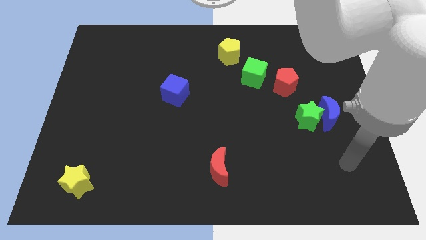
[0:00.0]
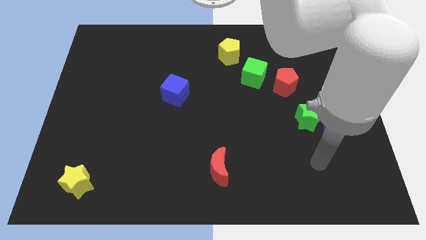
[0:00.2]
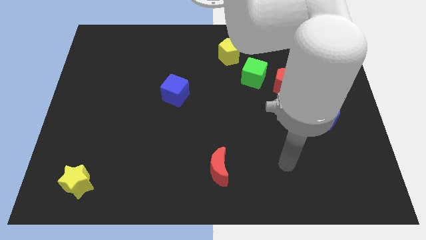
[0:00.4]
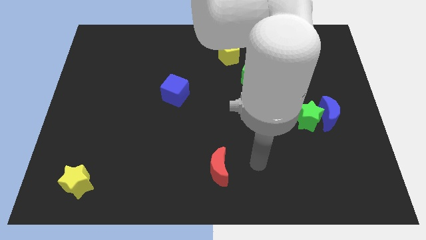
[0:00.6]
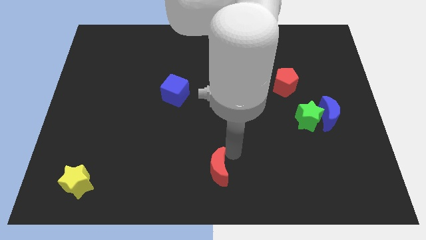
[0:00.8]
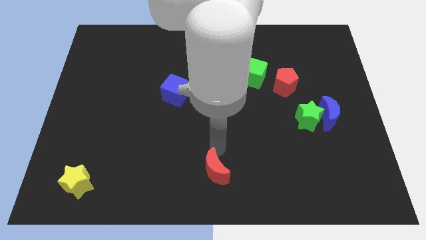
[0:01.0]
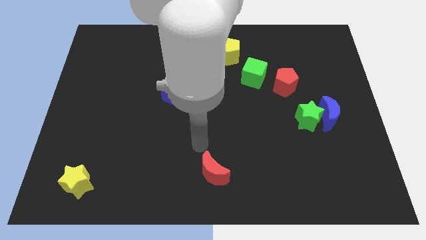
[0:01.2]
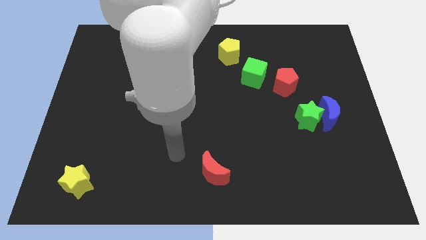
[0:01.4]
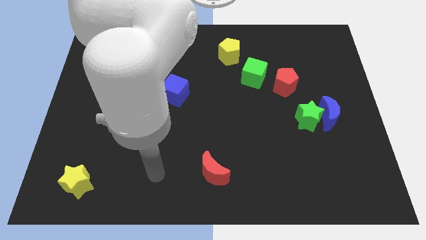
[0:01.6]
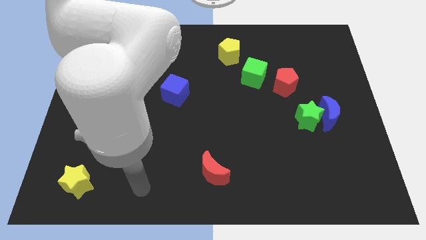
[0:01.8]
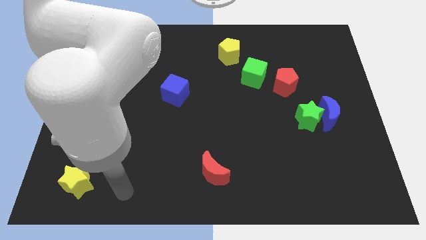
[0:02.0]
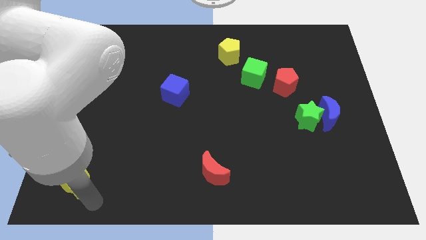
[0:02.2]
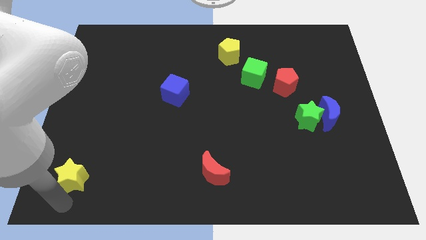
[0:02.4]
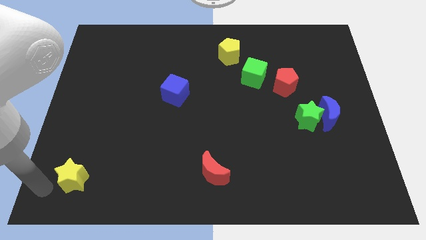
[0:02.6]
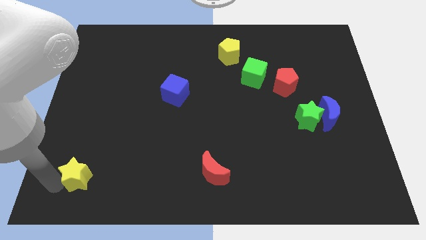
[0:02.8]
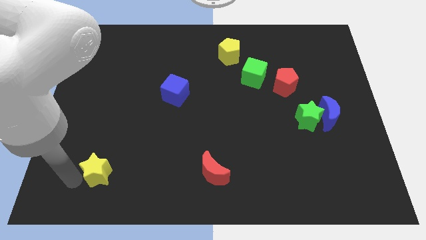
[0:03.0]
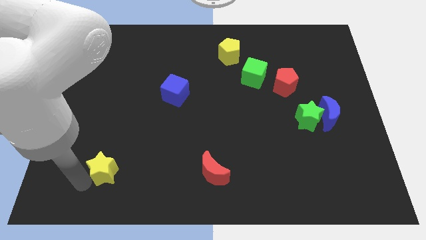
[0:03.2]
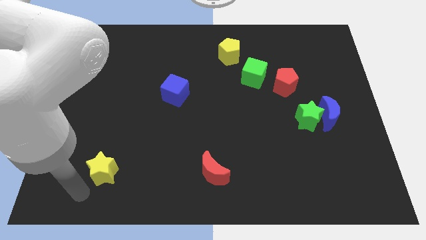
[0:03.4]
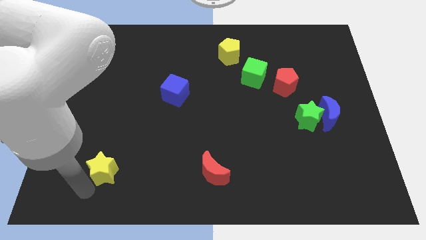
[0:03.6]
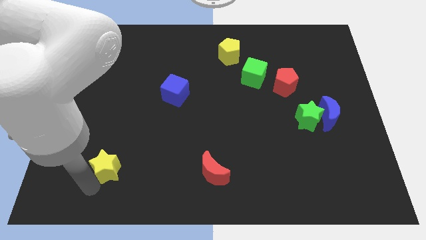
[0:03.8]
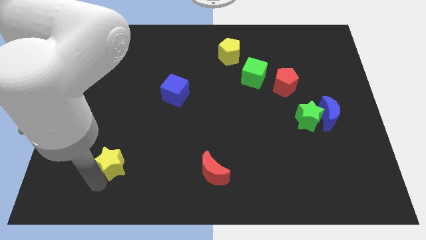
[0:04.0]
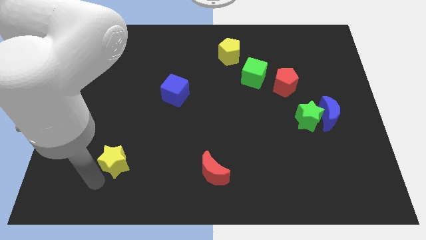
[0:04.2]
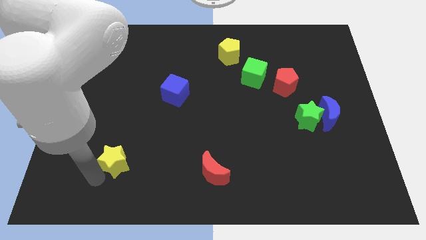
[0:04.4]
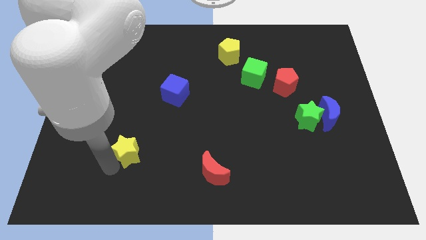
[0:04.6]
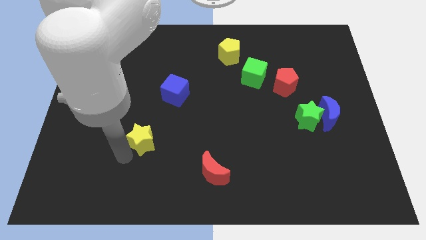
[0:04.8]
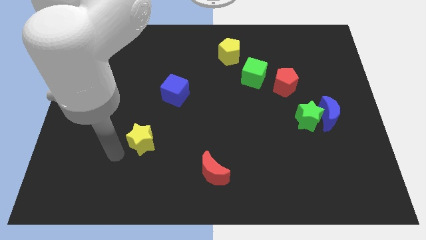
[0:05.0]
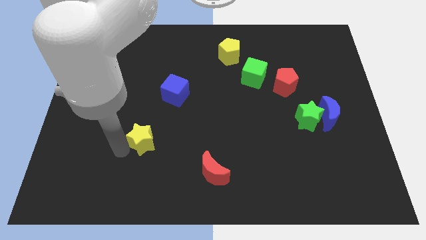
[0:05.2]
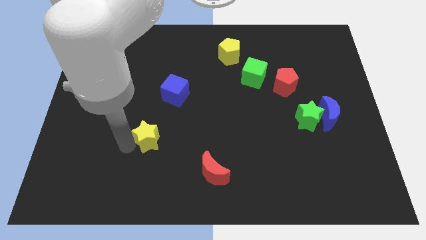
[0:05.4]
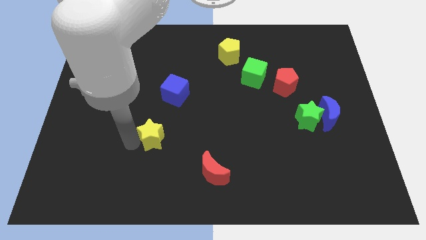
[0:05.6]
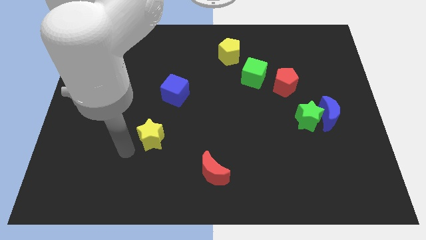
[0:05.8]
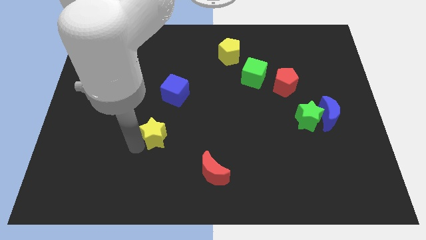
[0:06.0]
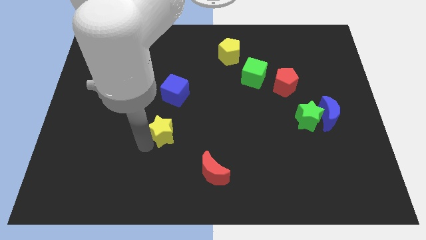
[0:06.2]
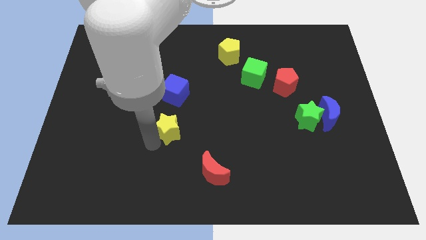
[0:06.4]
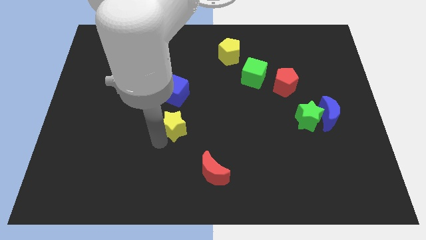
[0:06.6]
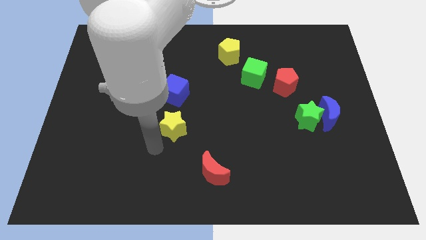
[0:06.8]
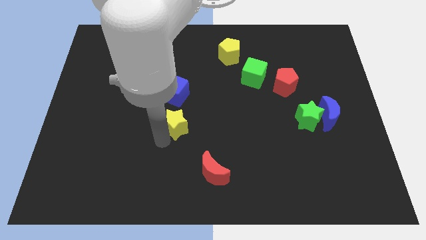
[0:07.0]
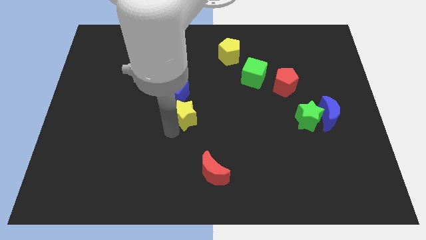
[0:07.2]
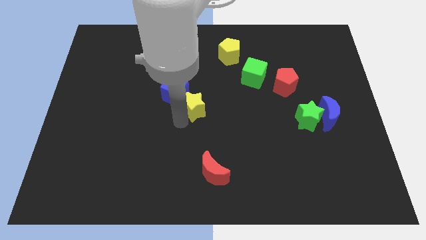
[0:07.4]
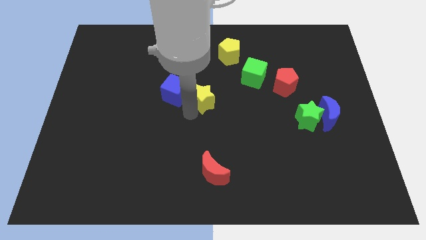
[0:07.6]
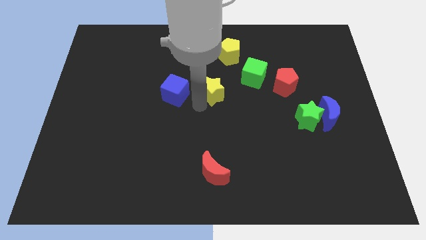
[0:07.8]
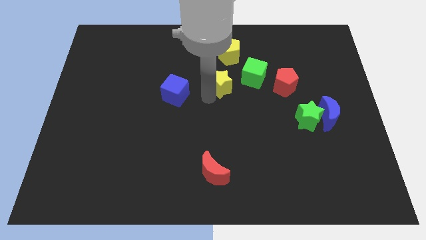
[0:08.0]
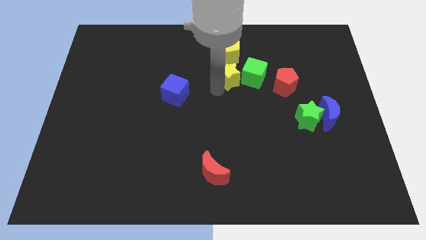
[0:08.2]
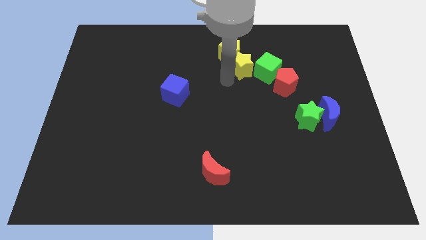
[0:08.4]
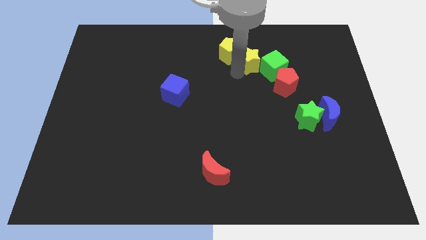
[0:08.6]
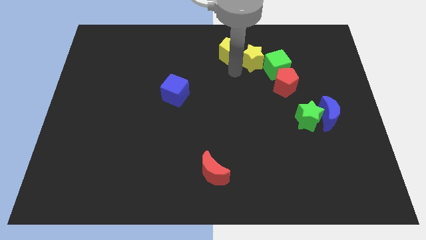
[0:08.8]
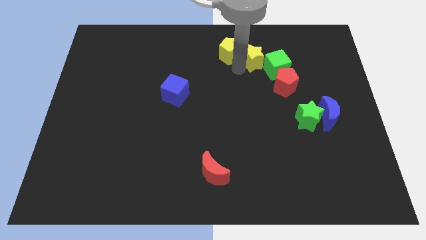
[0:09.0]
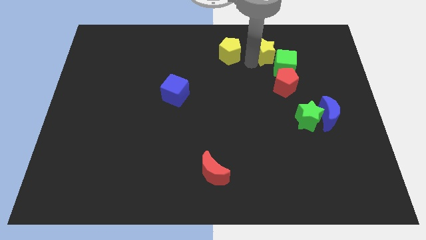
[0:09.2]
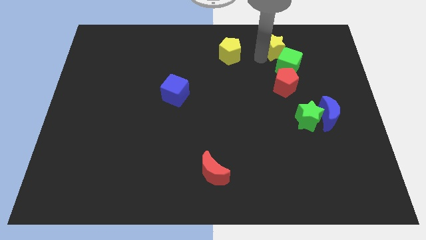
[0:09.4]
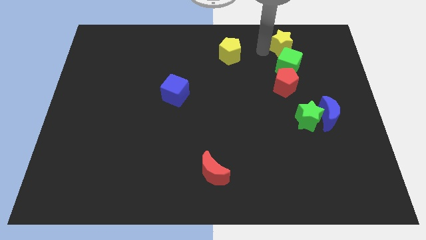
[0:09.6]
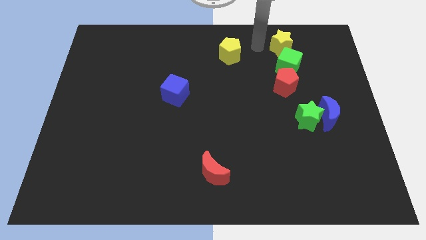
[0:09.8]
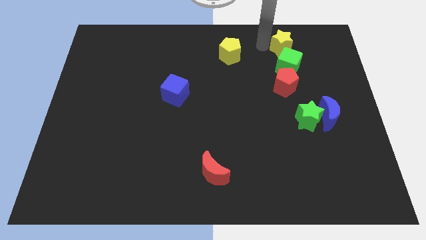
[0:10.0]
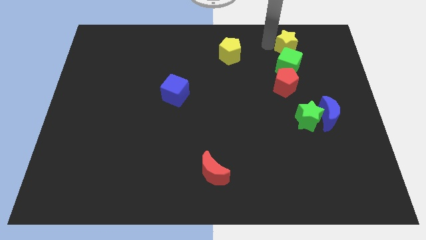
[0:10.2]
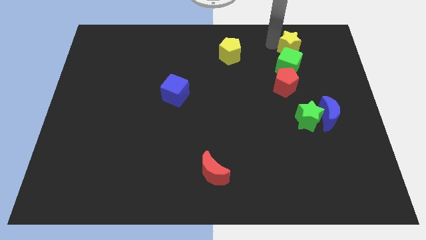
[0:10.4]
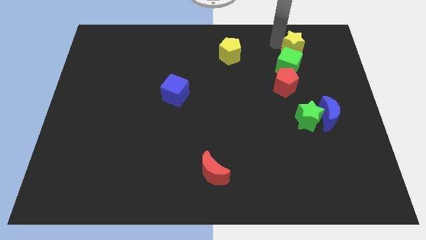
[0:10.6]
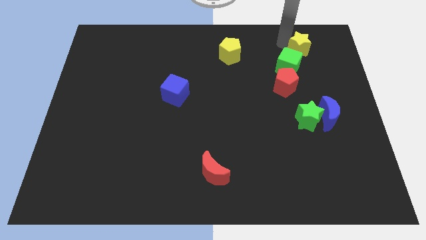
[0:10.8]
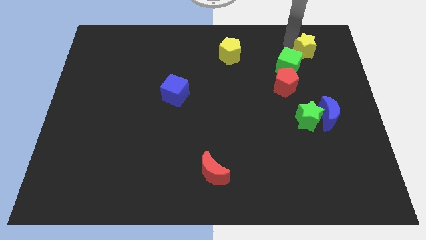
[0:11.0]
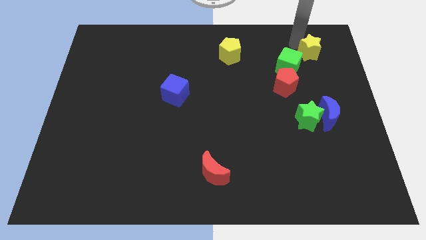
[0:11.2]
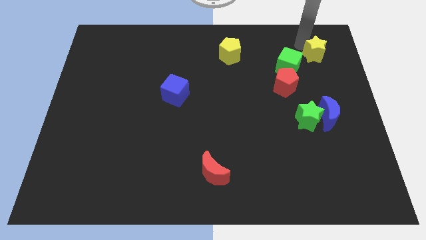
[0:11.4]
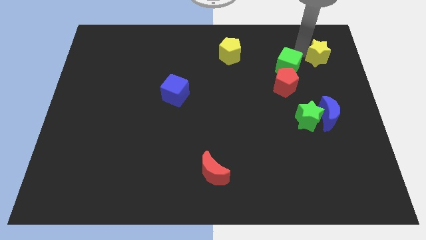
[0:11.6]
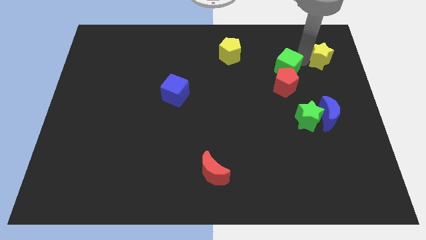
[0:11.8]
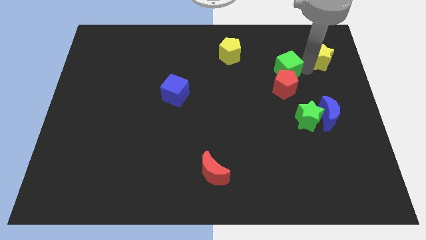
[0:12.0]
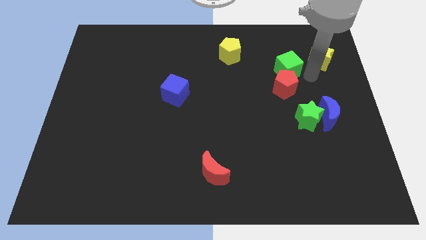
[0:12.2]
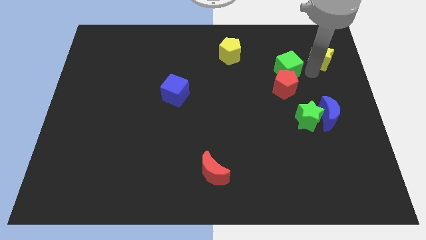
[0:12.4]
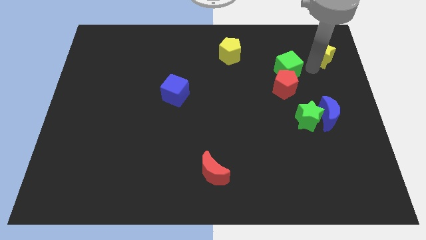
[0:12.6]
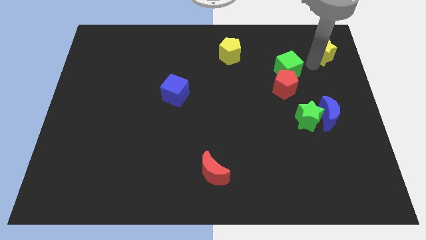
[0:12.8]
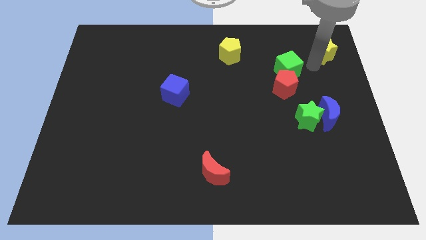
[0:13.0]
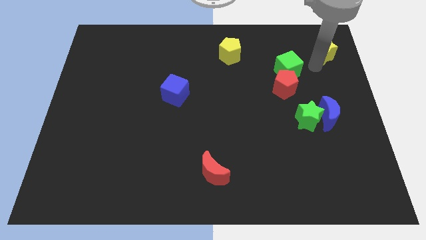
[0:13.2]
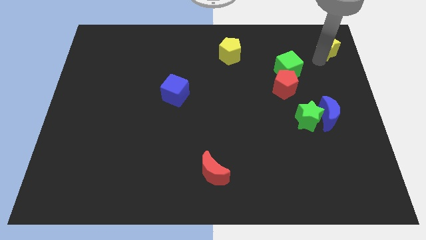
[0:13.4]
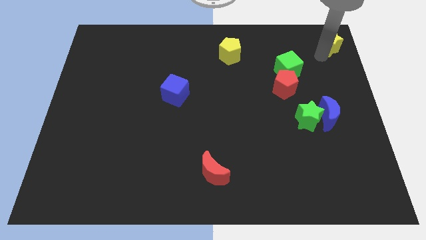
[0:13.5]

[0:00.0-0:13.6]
slide the yellow star to the top right of the board
